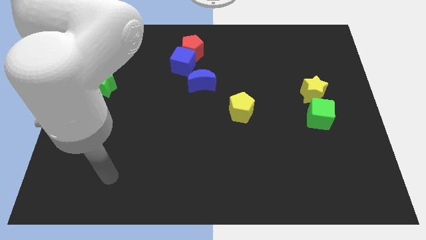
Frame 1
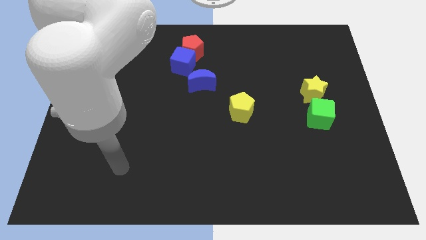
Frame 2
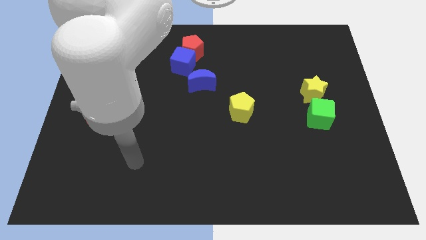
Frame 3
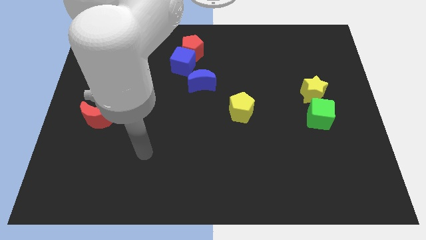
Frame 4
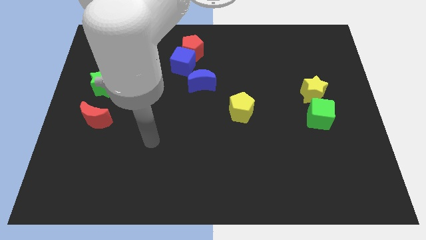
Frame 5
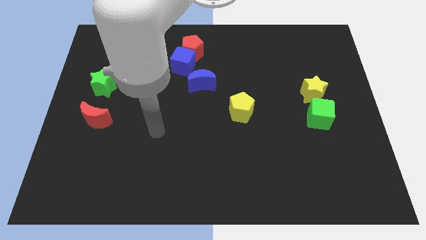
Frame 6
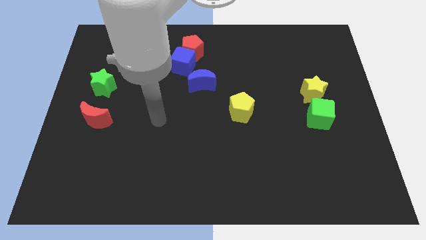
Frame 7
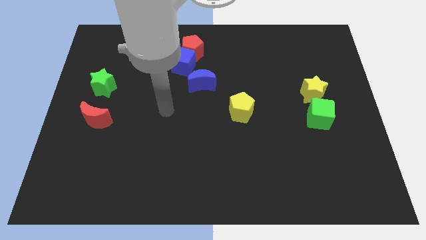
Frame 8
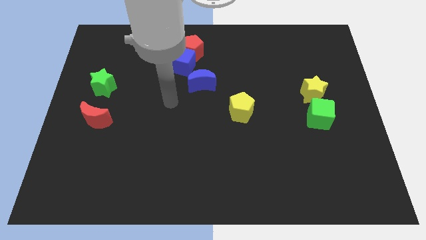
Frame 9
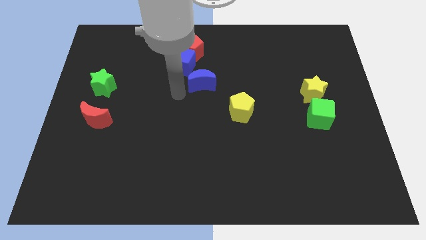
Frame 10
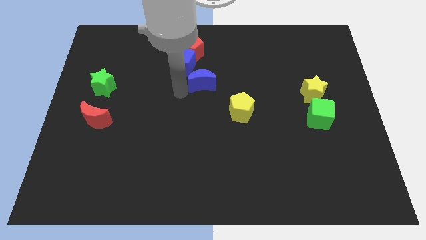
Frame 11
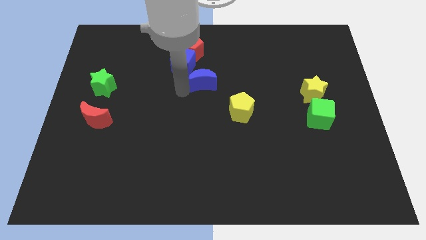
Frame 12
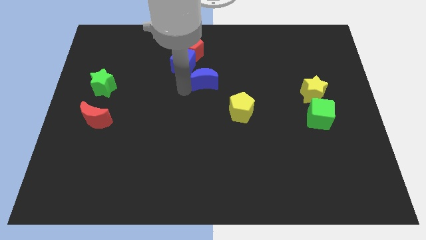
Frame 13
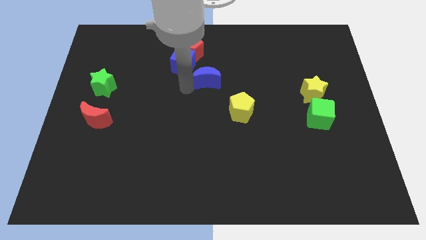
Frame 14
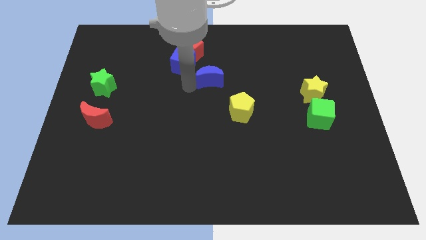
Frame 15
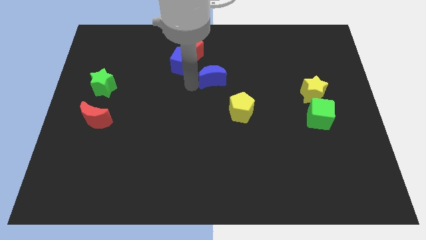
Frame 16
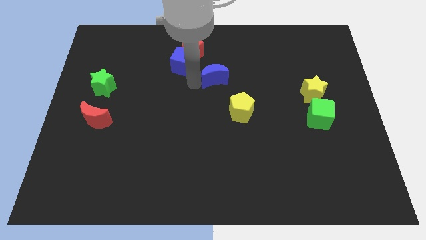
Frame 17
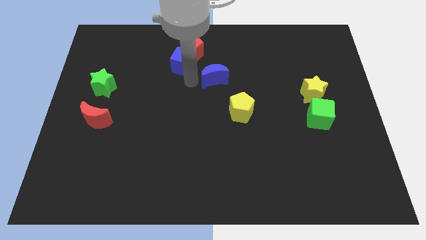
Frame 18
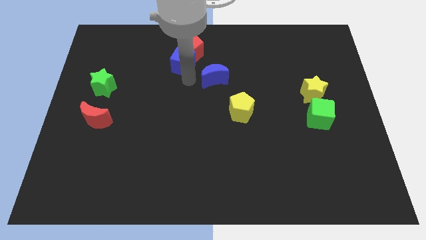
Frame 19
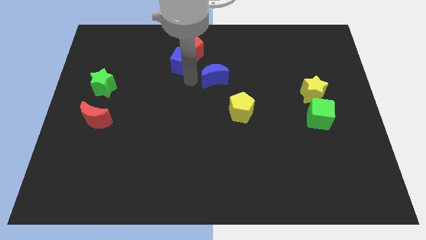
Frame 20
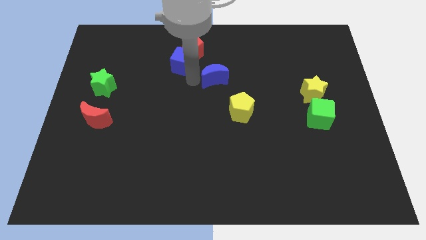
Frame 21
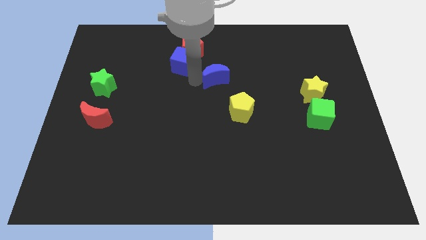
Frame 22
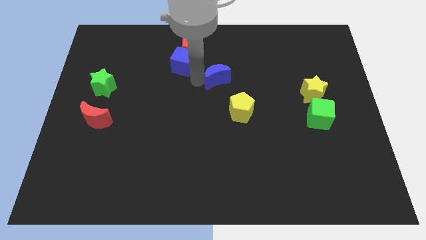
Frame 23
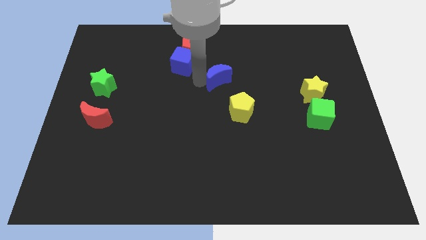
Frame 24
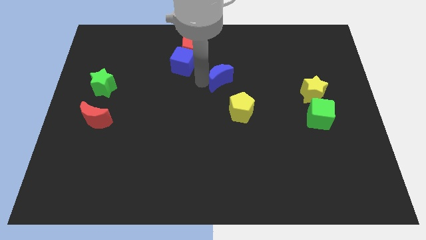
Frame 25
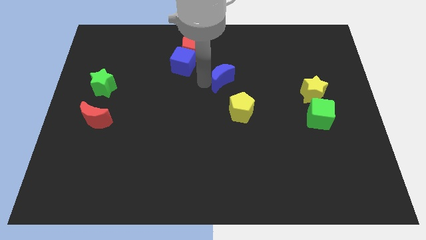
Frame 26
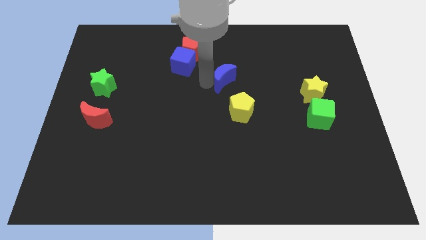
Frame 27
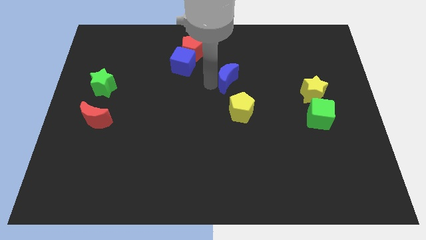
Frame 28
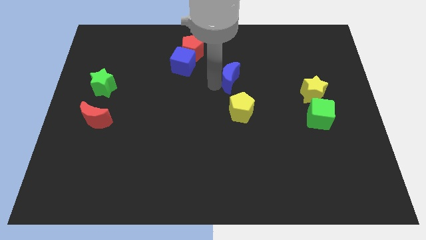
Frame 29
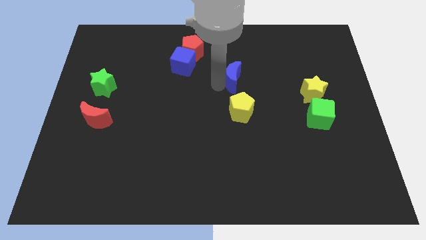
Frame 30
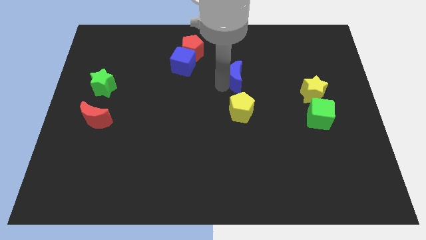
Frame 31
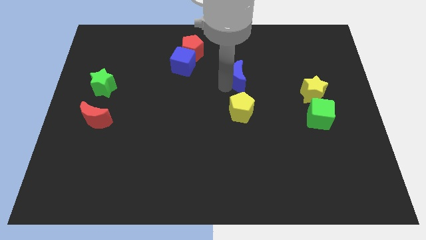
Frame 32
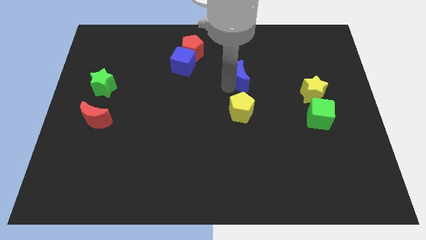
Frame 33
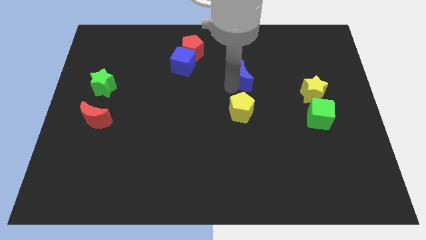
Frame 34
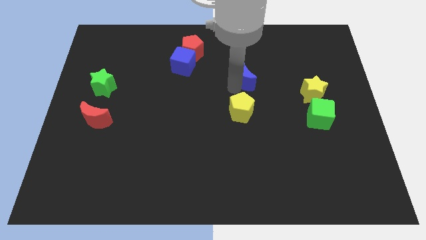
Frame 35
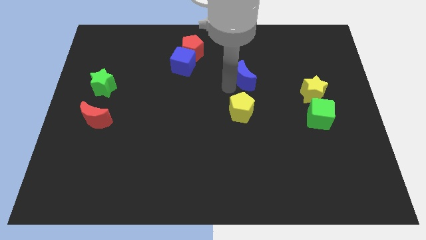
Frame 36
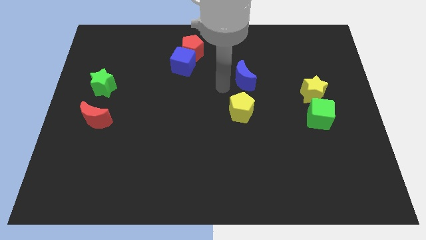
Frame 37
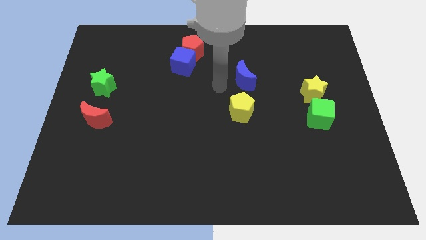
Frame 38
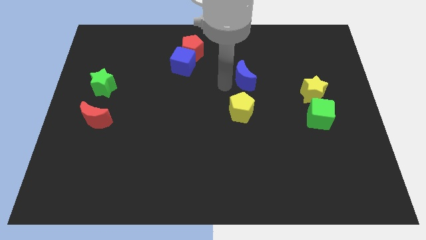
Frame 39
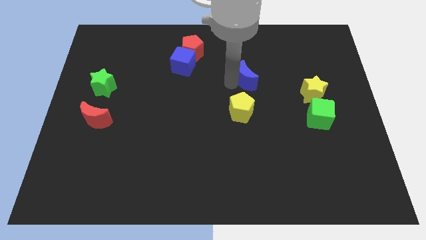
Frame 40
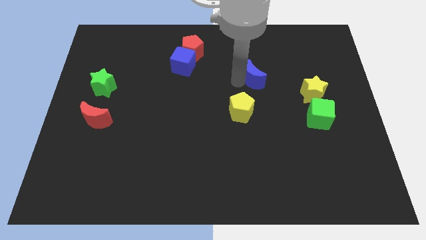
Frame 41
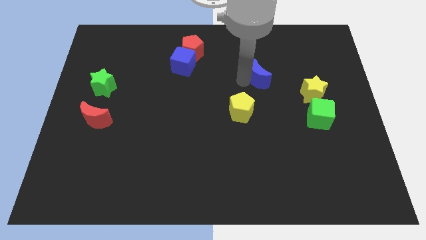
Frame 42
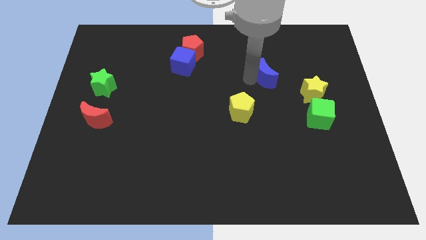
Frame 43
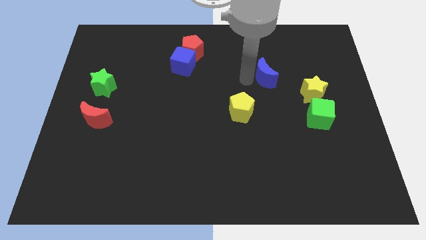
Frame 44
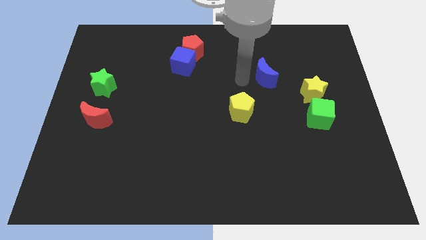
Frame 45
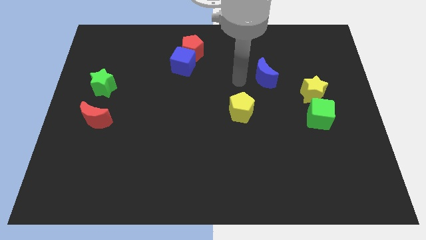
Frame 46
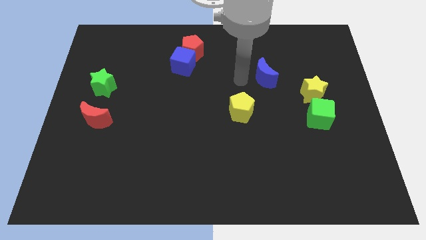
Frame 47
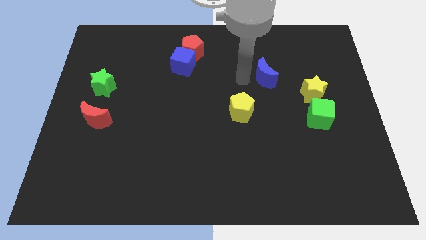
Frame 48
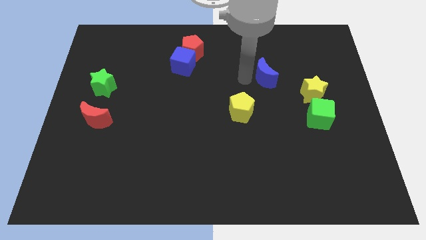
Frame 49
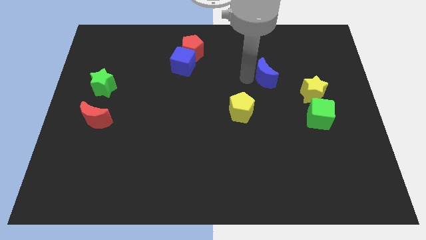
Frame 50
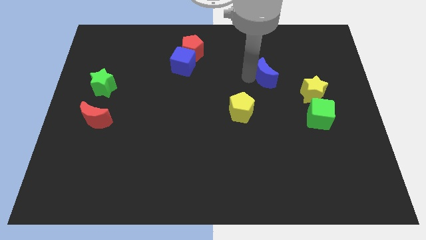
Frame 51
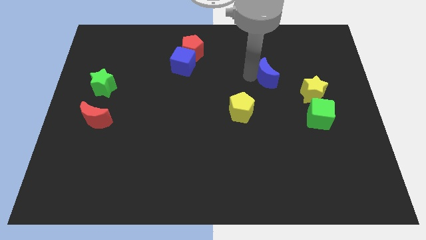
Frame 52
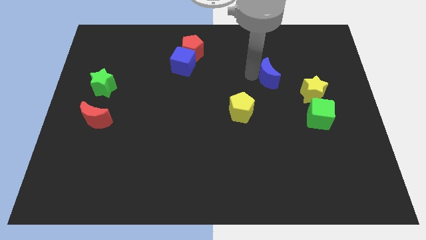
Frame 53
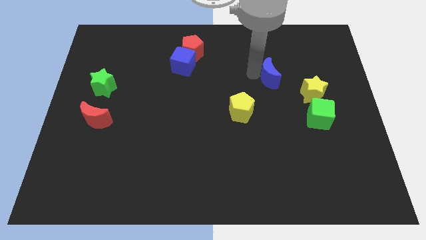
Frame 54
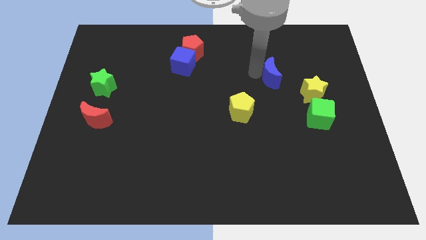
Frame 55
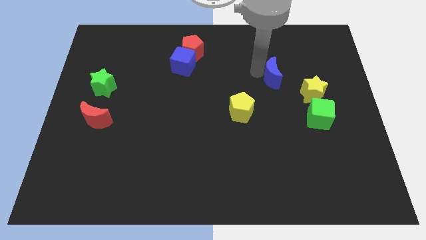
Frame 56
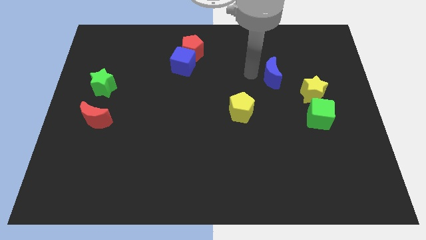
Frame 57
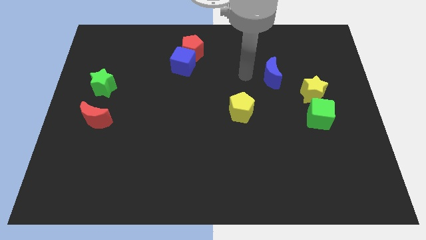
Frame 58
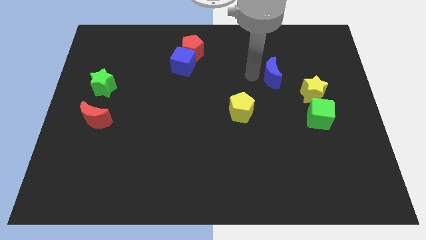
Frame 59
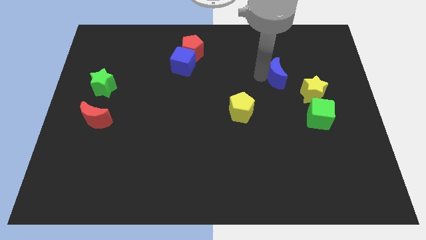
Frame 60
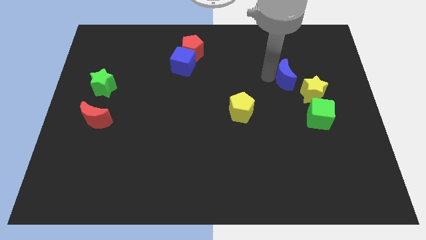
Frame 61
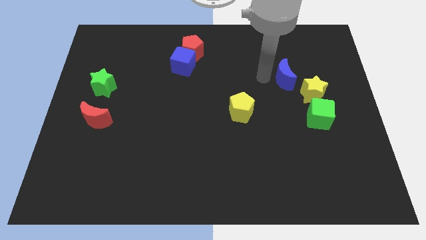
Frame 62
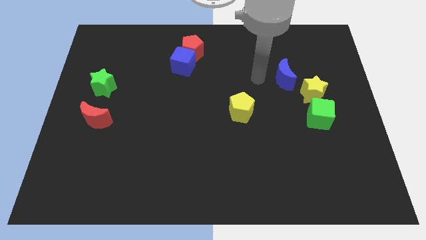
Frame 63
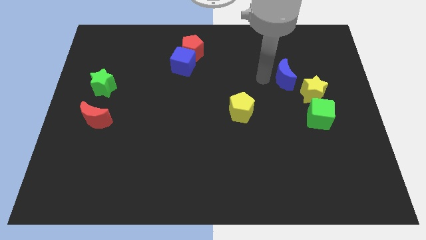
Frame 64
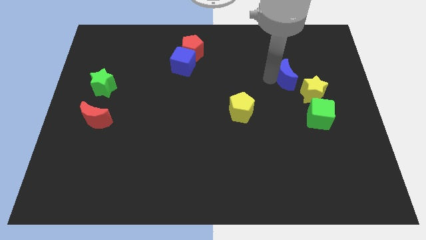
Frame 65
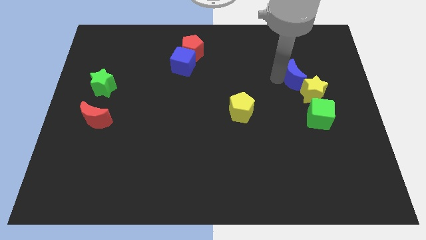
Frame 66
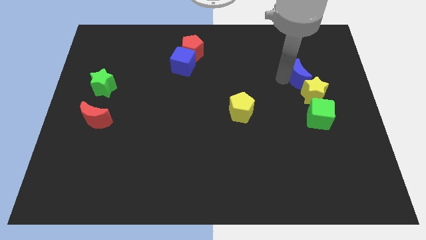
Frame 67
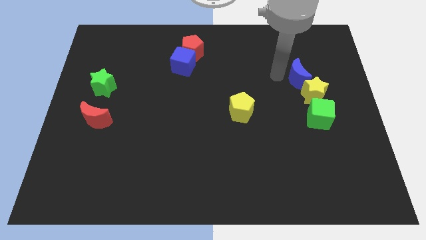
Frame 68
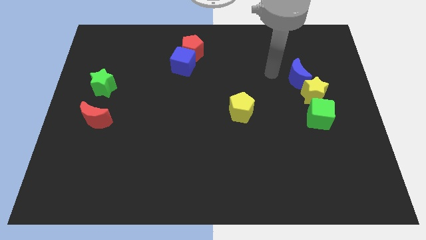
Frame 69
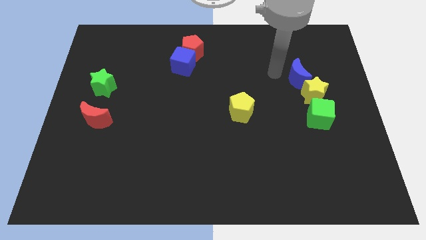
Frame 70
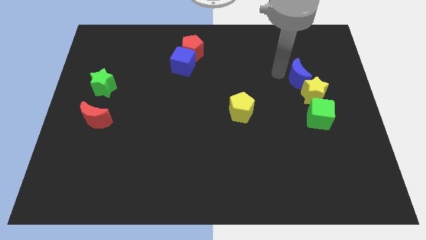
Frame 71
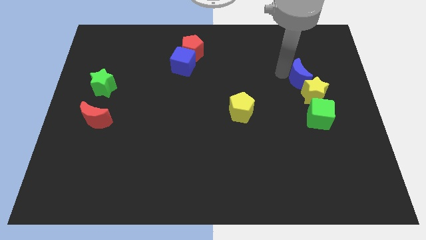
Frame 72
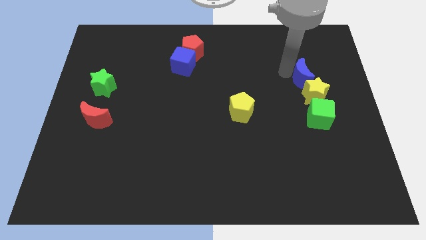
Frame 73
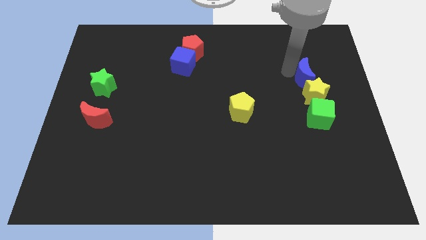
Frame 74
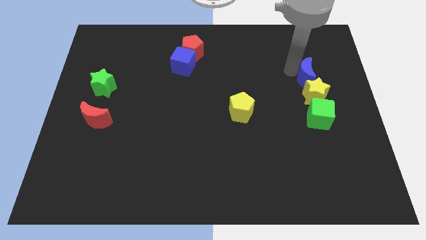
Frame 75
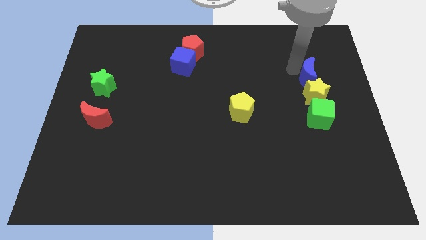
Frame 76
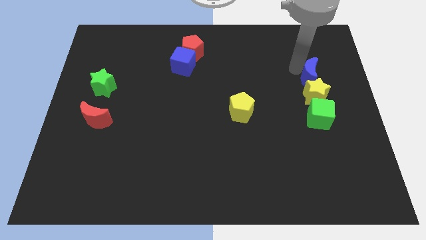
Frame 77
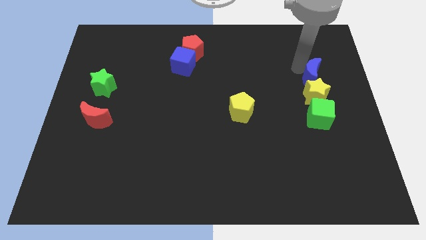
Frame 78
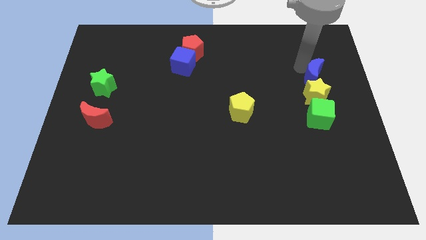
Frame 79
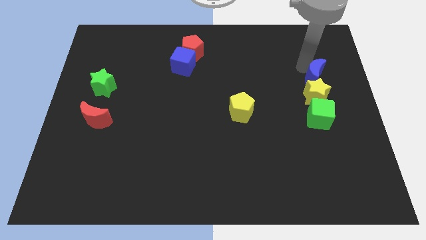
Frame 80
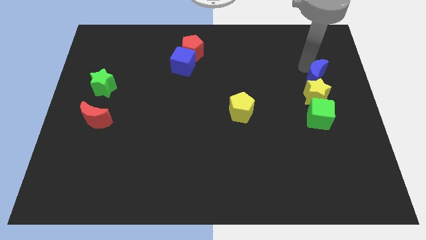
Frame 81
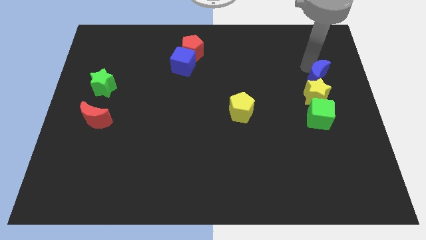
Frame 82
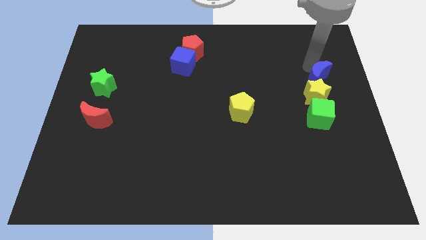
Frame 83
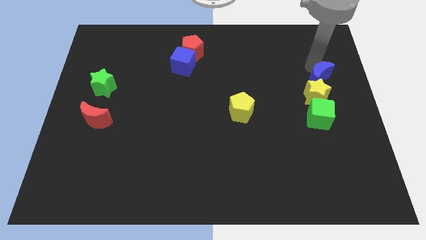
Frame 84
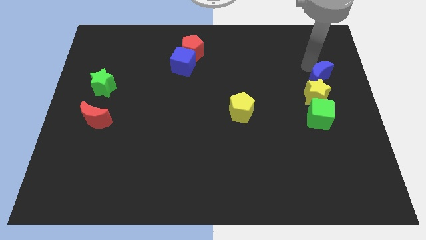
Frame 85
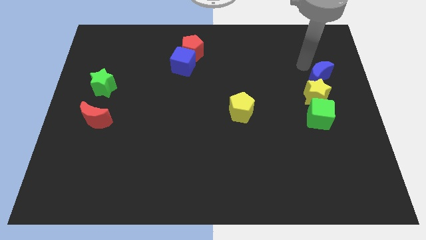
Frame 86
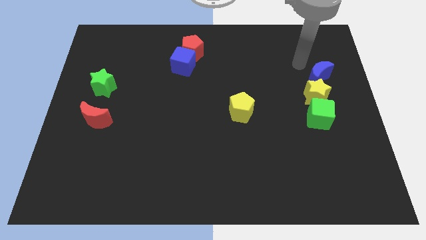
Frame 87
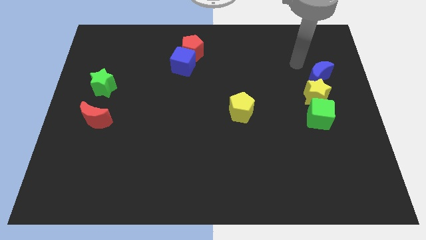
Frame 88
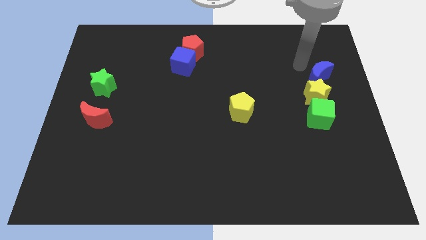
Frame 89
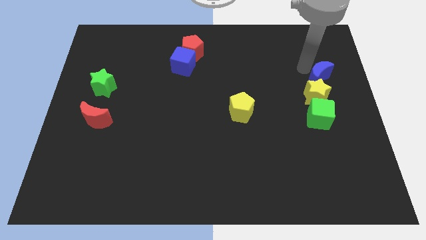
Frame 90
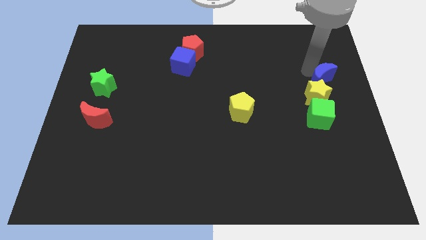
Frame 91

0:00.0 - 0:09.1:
slide the blue moon to the right side
